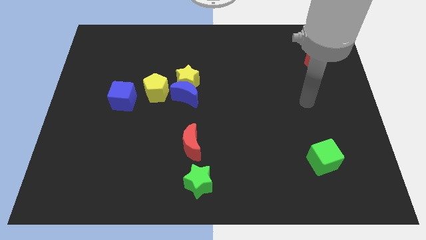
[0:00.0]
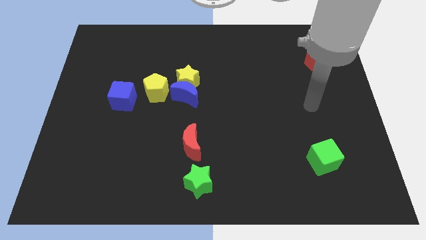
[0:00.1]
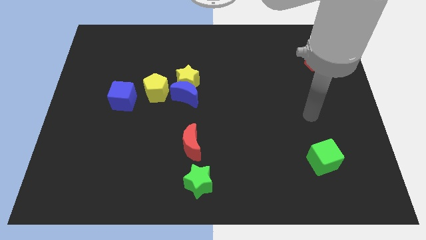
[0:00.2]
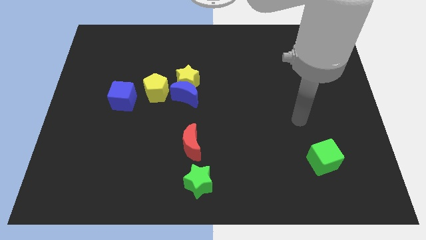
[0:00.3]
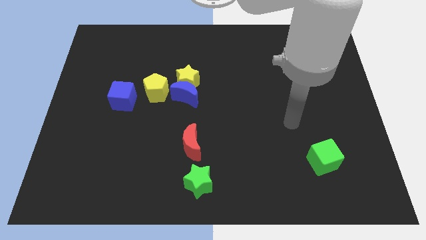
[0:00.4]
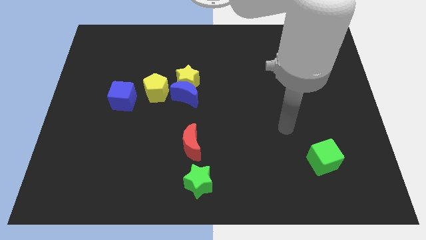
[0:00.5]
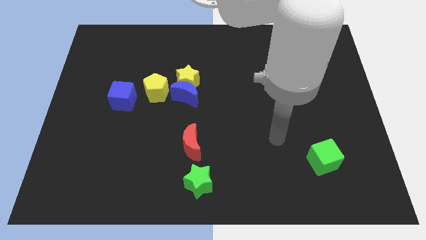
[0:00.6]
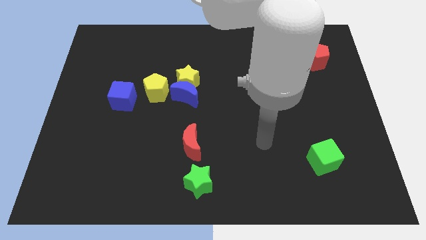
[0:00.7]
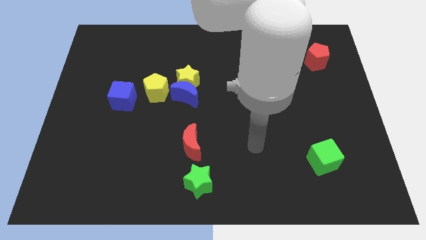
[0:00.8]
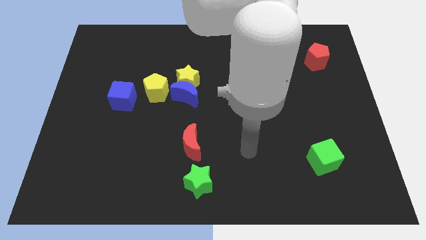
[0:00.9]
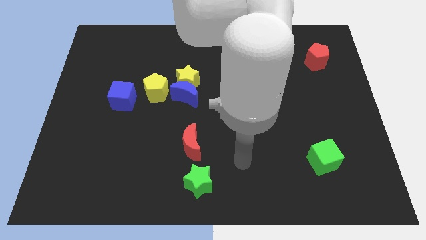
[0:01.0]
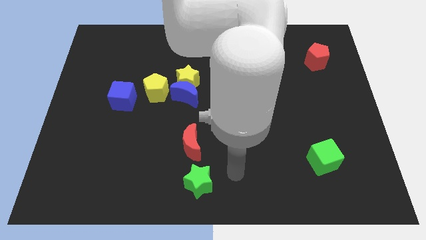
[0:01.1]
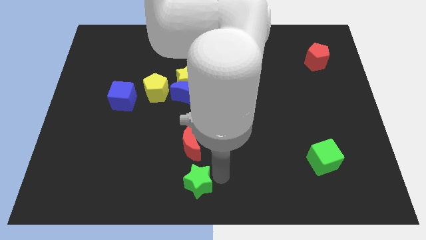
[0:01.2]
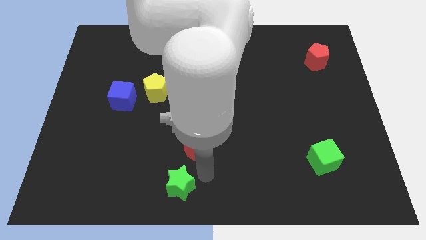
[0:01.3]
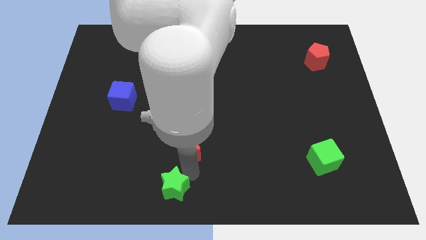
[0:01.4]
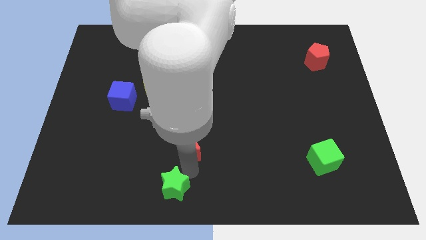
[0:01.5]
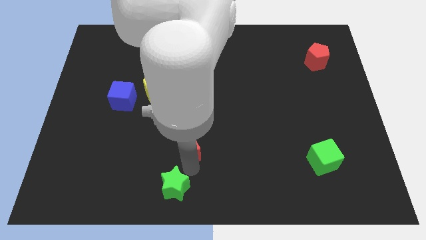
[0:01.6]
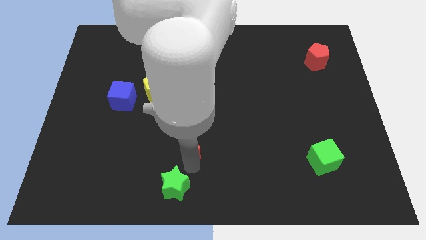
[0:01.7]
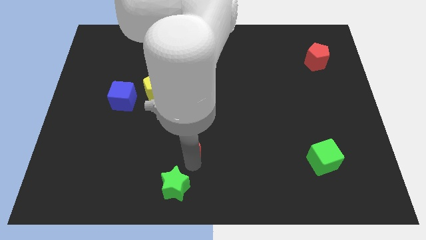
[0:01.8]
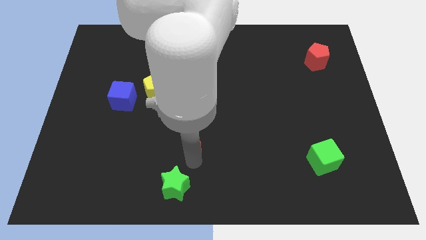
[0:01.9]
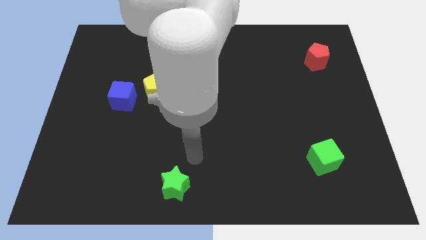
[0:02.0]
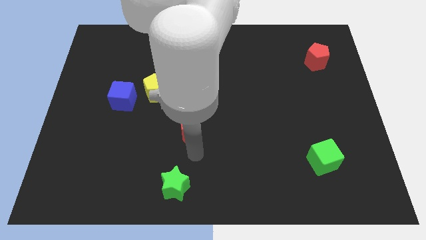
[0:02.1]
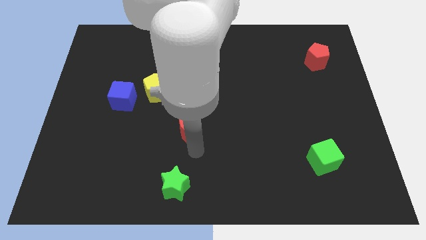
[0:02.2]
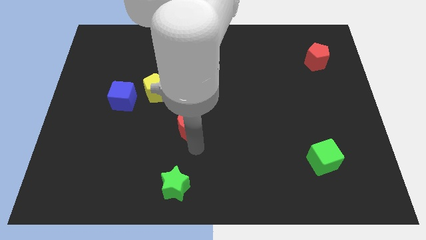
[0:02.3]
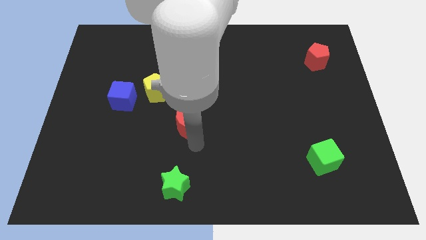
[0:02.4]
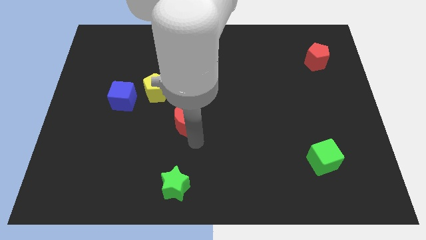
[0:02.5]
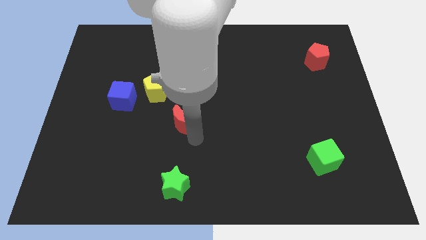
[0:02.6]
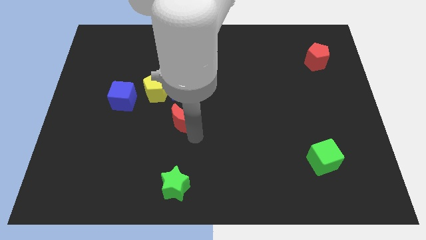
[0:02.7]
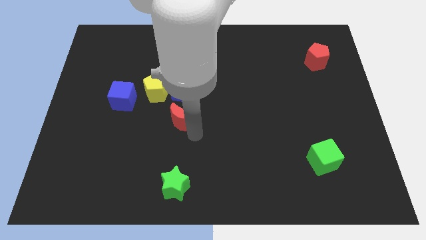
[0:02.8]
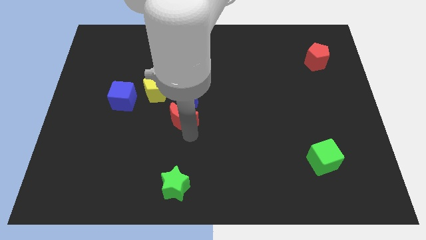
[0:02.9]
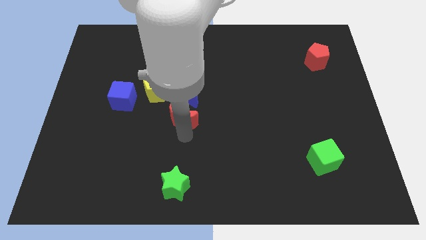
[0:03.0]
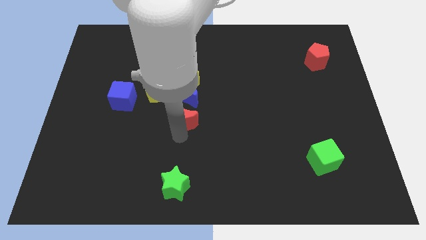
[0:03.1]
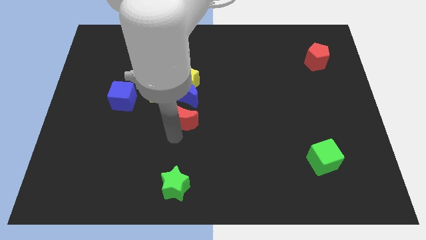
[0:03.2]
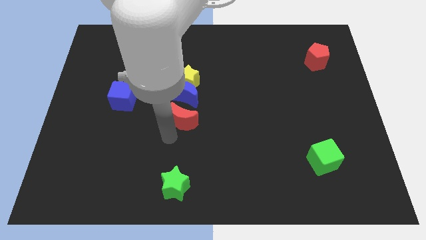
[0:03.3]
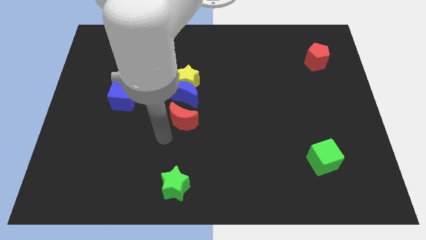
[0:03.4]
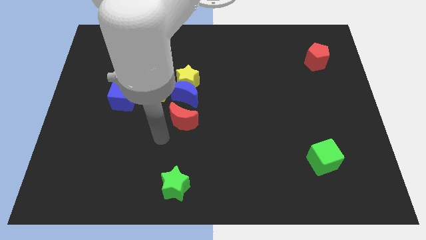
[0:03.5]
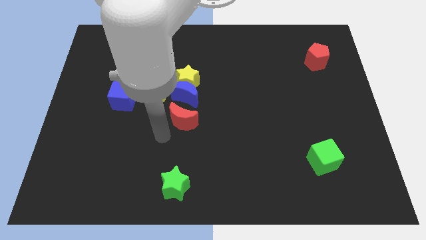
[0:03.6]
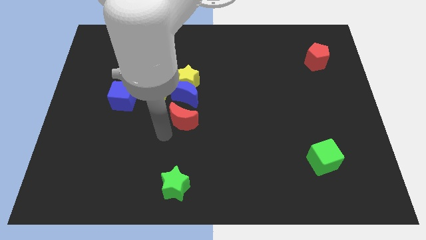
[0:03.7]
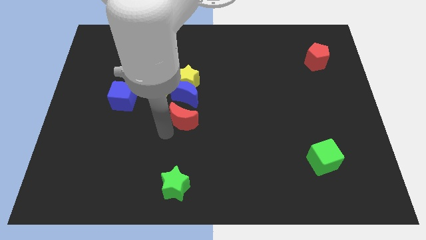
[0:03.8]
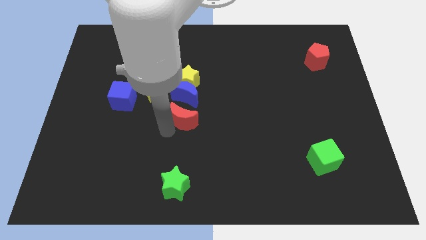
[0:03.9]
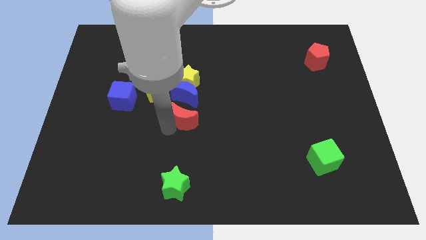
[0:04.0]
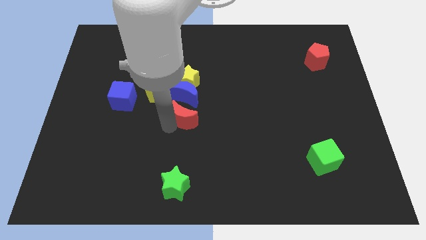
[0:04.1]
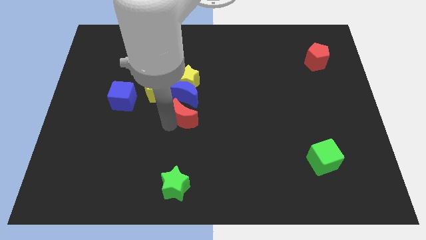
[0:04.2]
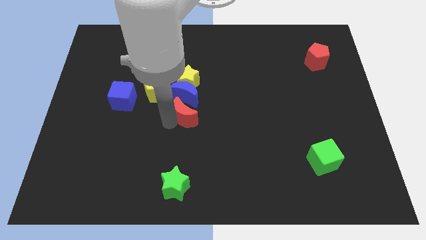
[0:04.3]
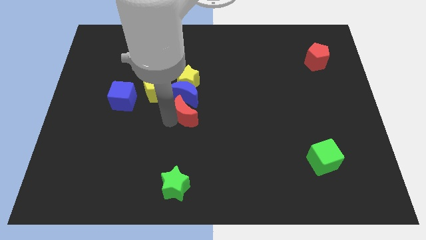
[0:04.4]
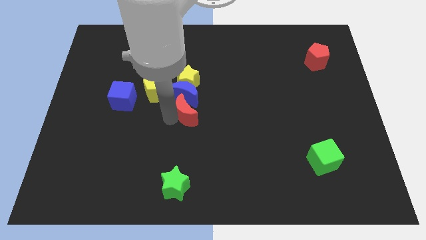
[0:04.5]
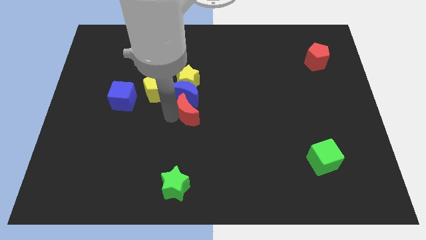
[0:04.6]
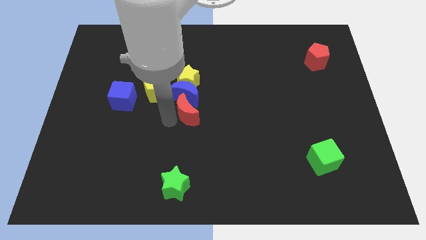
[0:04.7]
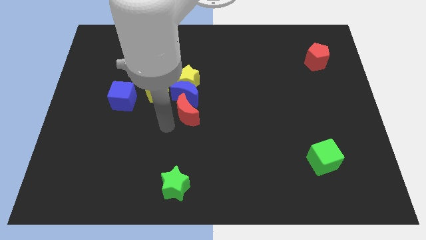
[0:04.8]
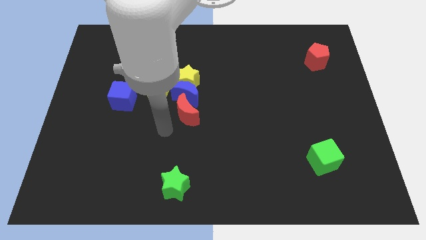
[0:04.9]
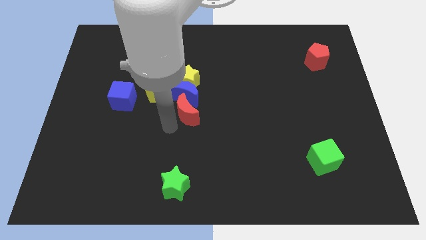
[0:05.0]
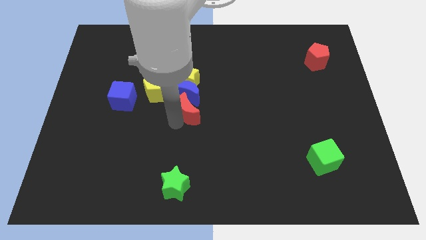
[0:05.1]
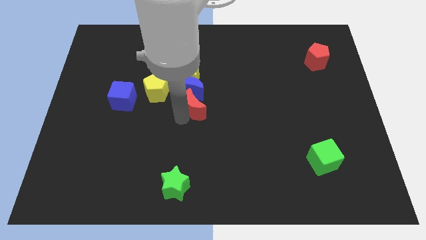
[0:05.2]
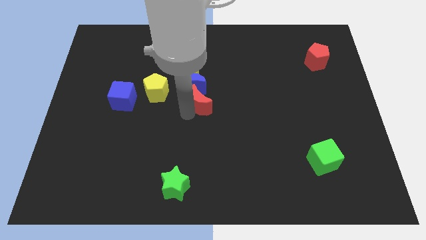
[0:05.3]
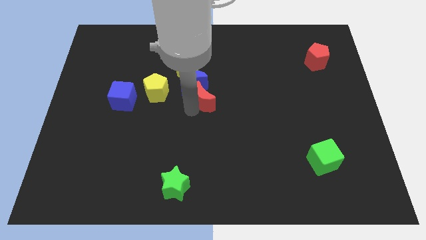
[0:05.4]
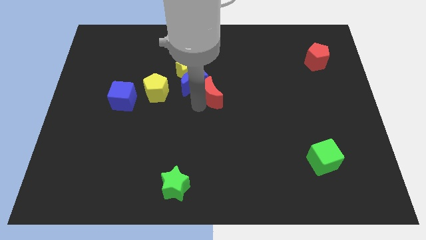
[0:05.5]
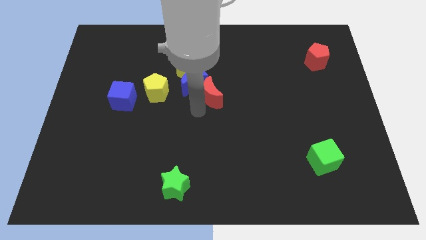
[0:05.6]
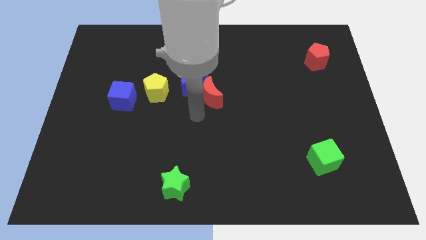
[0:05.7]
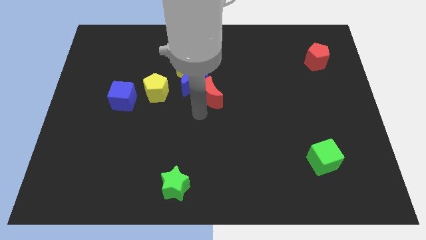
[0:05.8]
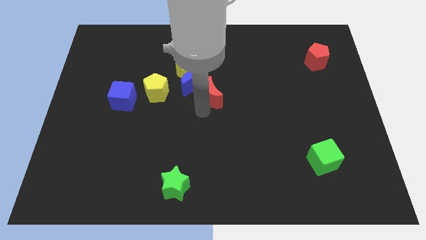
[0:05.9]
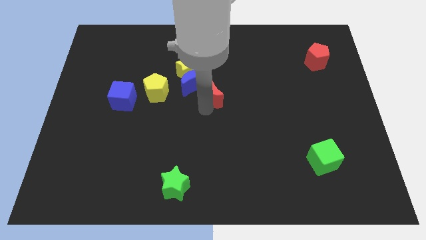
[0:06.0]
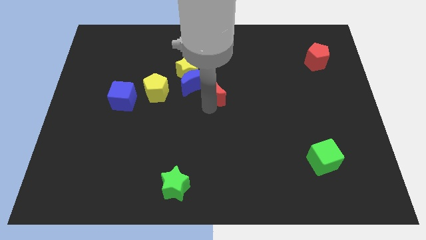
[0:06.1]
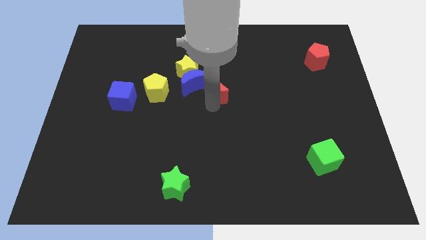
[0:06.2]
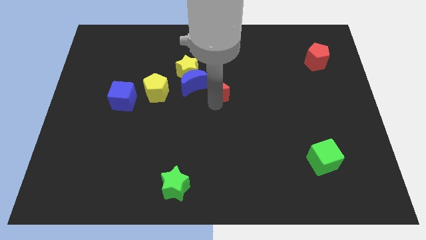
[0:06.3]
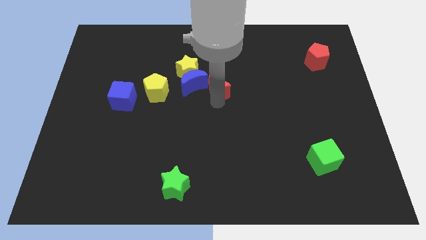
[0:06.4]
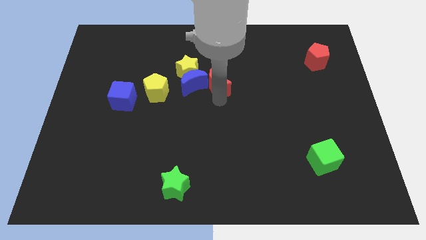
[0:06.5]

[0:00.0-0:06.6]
push the red moon to the right of the yellow star
